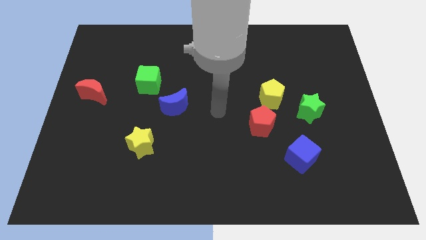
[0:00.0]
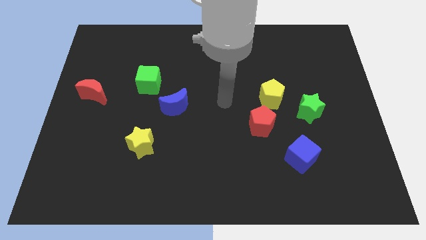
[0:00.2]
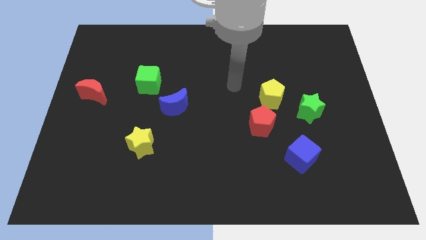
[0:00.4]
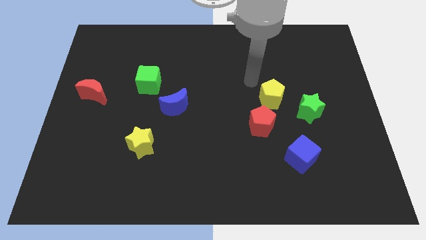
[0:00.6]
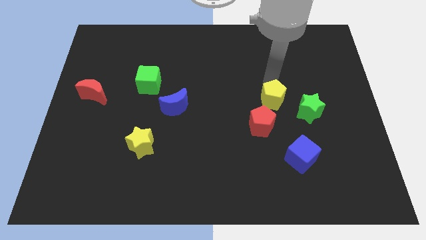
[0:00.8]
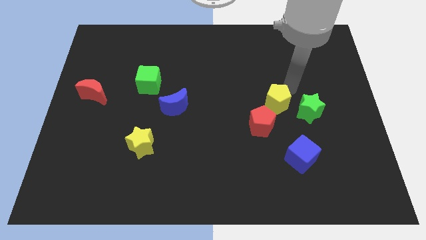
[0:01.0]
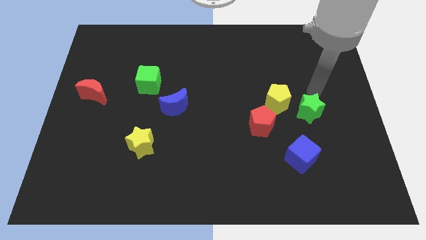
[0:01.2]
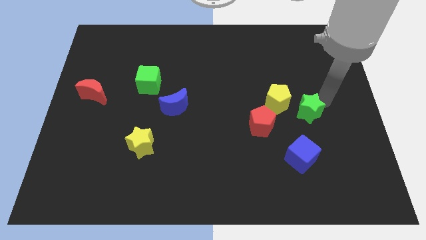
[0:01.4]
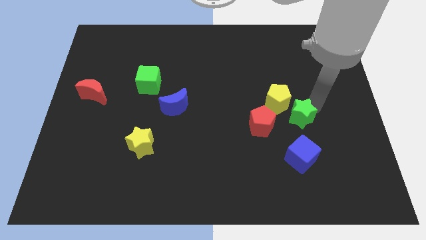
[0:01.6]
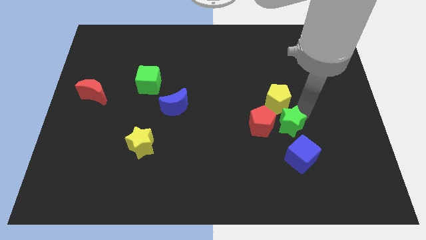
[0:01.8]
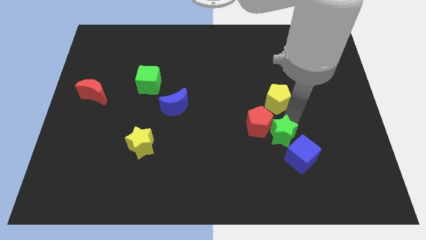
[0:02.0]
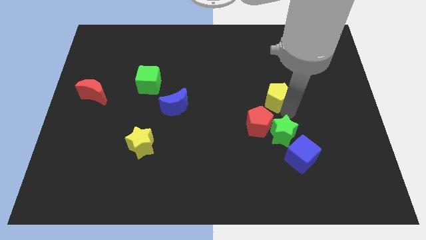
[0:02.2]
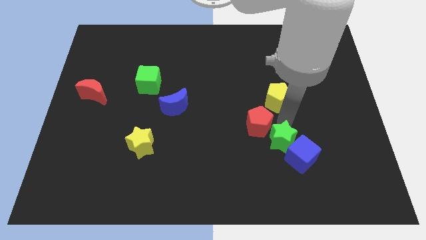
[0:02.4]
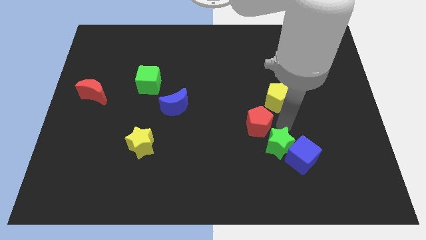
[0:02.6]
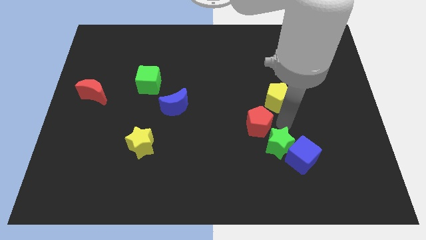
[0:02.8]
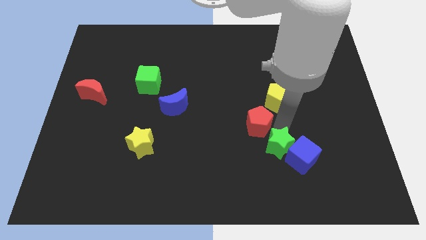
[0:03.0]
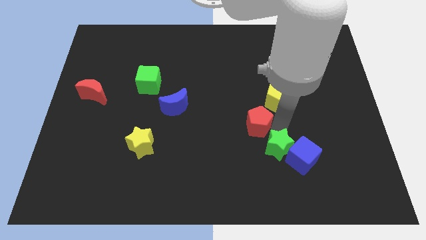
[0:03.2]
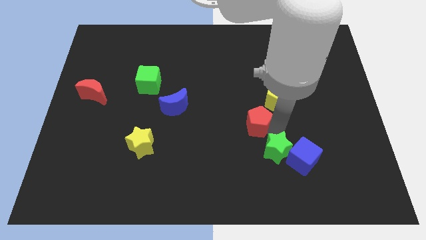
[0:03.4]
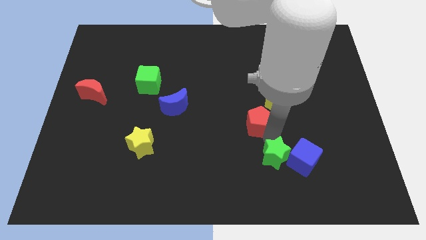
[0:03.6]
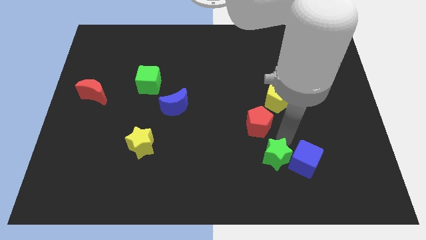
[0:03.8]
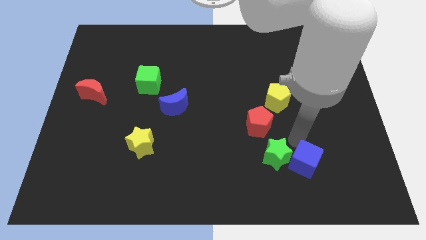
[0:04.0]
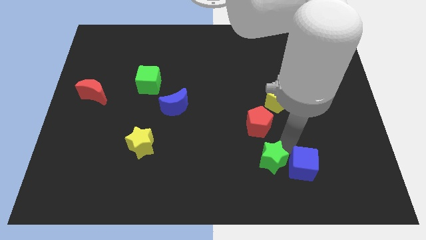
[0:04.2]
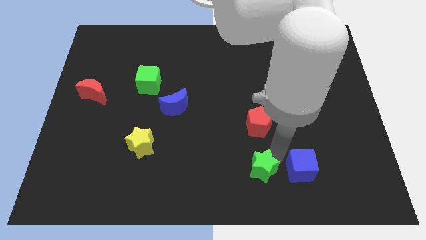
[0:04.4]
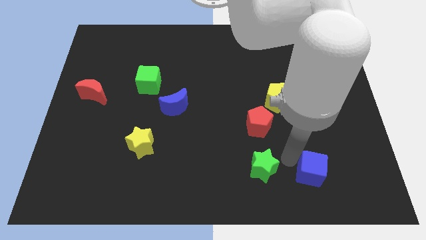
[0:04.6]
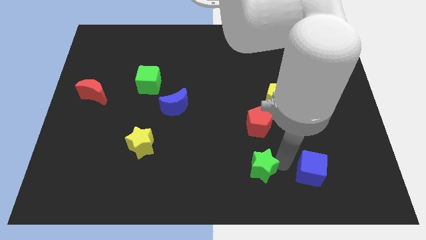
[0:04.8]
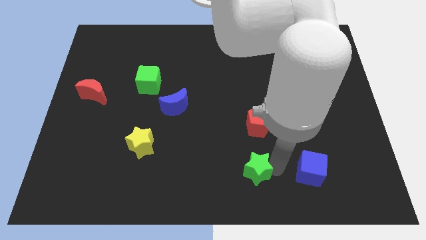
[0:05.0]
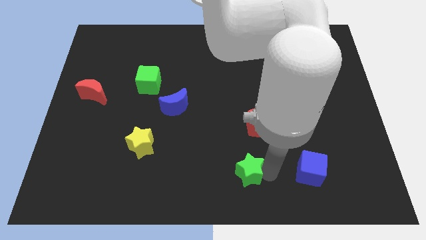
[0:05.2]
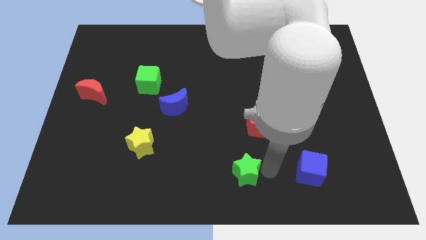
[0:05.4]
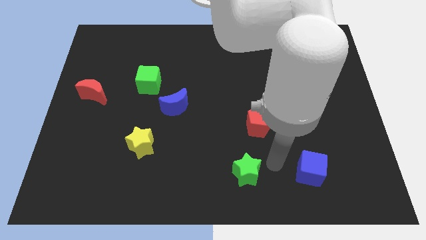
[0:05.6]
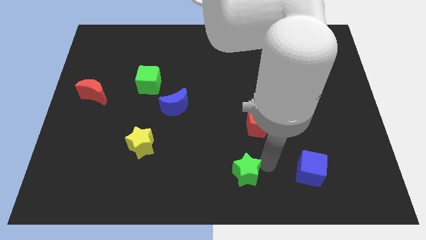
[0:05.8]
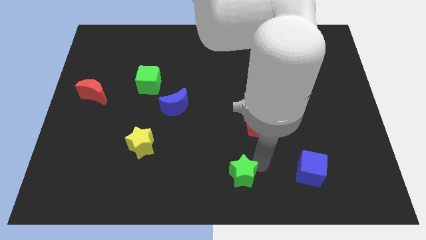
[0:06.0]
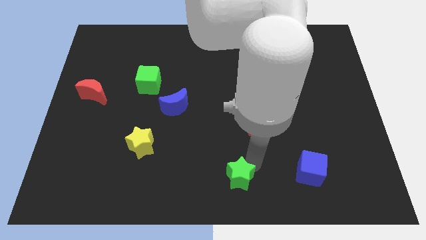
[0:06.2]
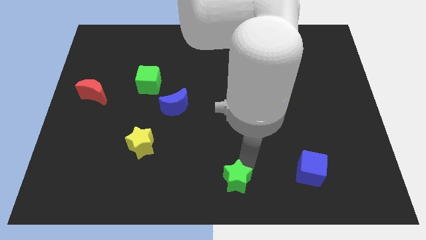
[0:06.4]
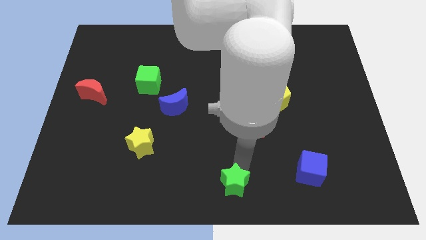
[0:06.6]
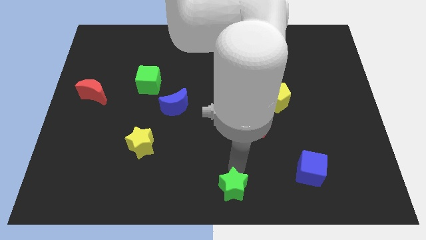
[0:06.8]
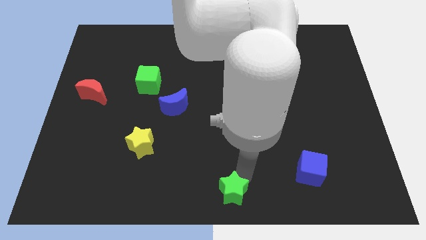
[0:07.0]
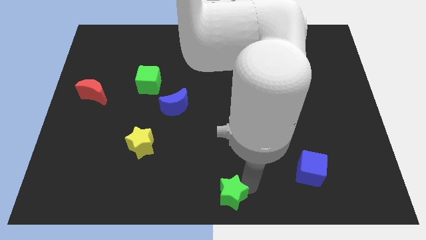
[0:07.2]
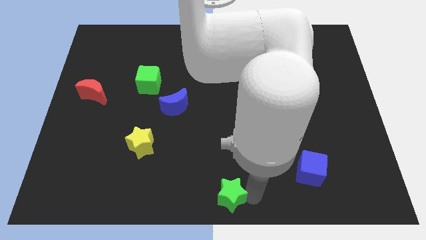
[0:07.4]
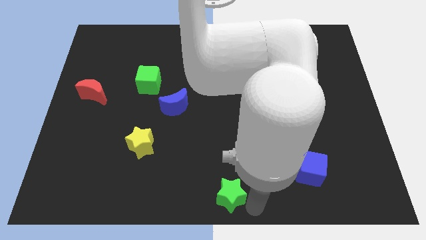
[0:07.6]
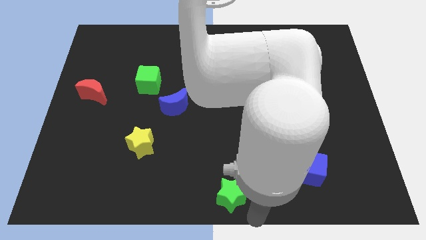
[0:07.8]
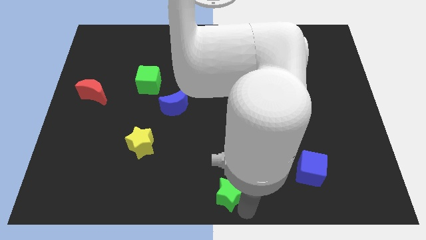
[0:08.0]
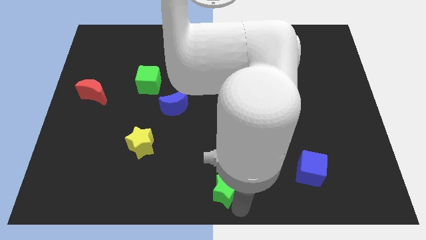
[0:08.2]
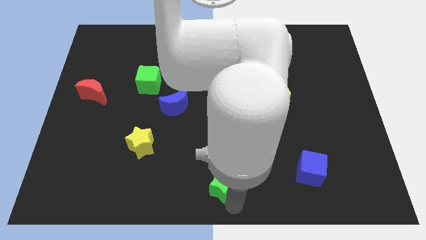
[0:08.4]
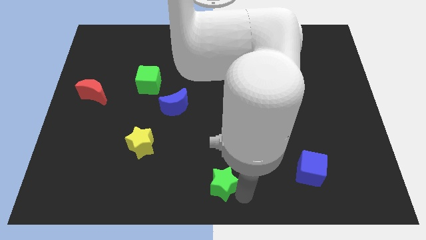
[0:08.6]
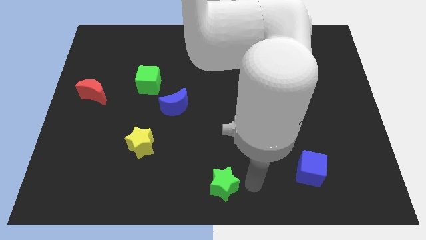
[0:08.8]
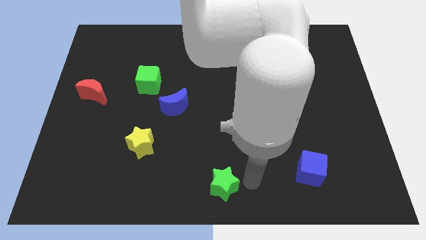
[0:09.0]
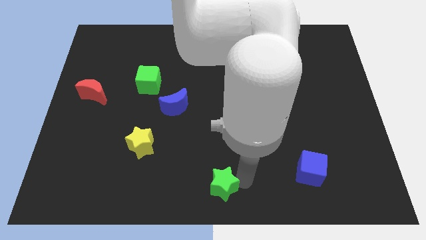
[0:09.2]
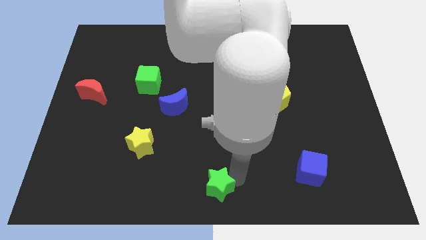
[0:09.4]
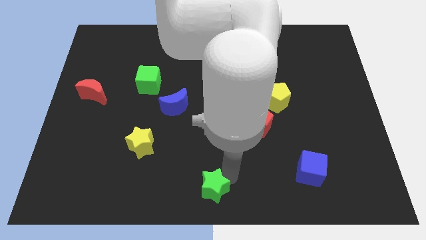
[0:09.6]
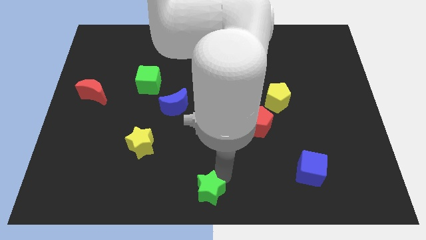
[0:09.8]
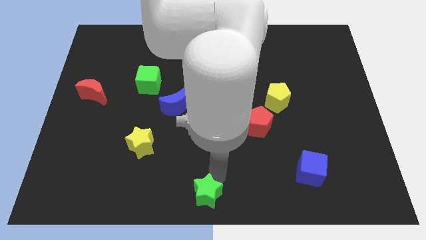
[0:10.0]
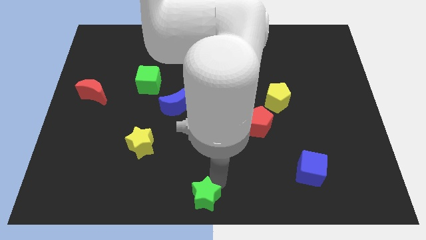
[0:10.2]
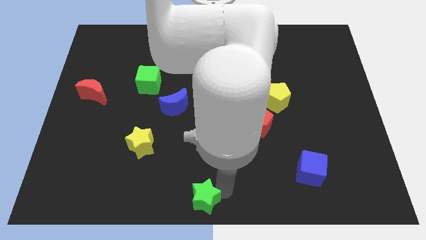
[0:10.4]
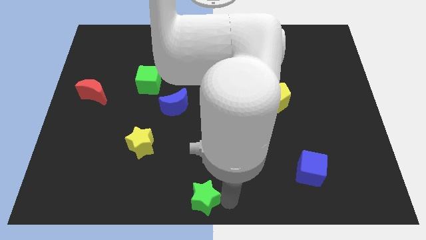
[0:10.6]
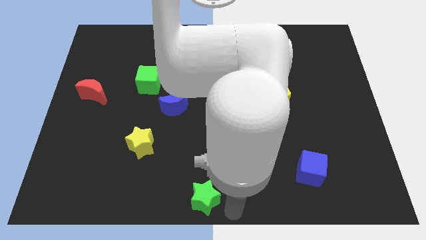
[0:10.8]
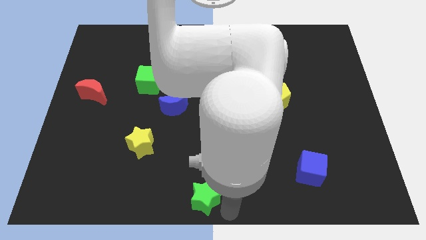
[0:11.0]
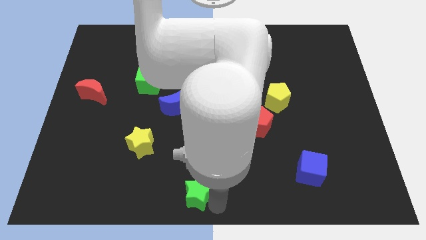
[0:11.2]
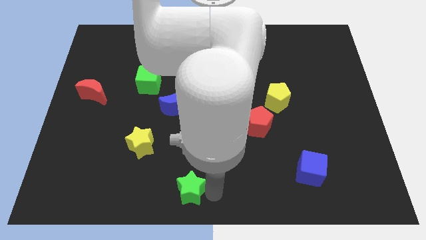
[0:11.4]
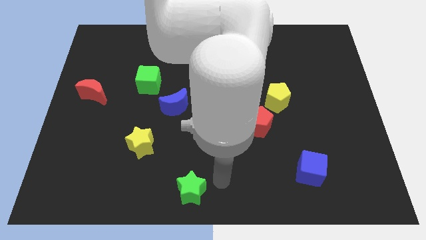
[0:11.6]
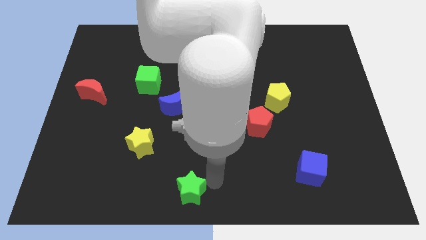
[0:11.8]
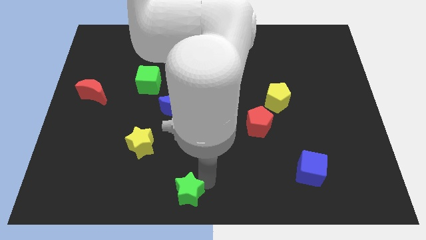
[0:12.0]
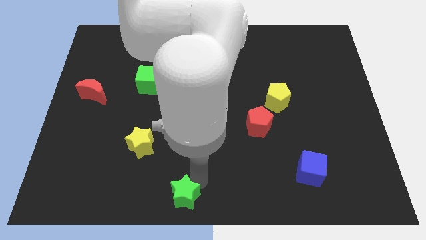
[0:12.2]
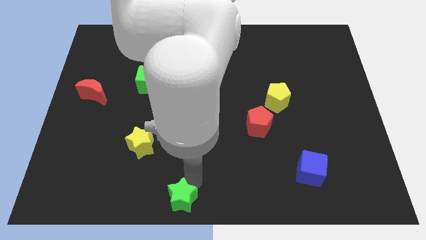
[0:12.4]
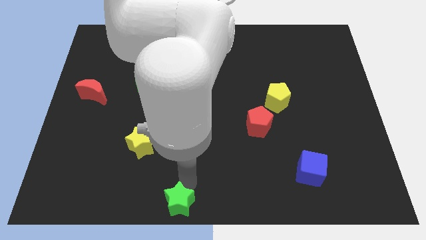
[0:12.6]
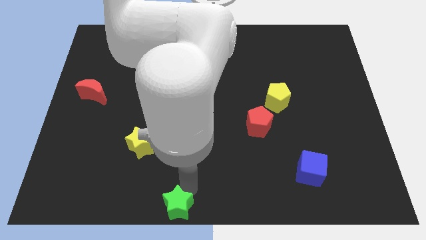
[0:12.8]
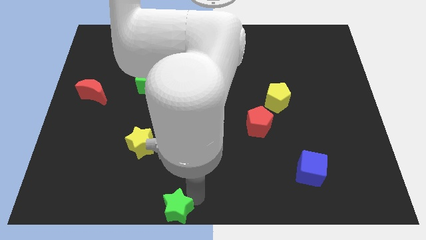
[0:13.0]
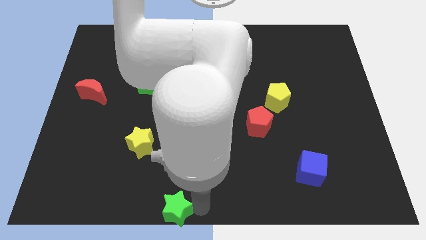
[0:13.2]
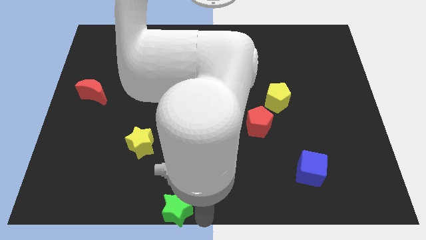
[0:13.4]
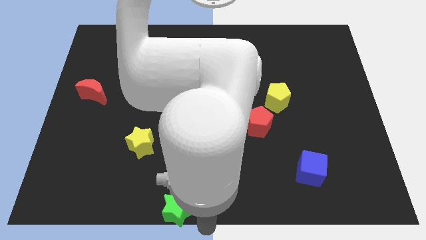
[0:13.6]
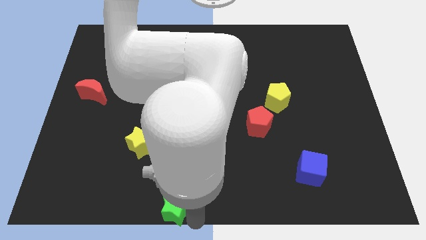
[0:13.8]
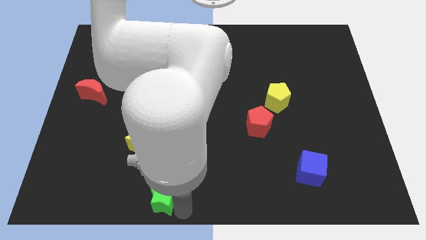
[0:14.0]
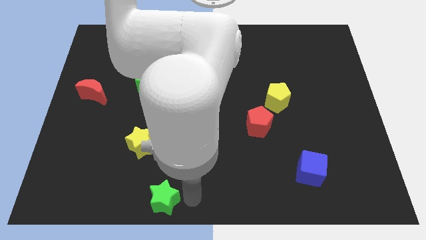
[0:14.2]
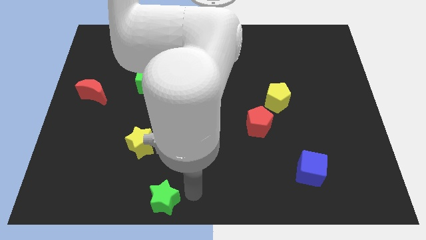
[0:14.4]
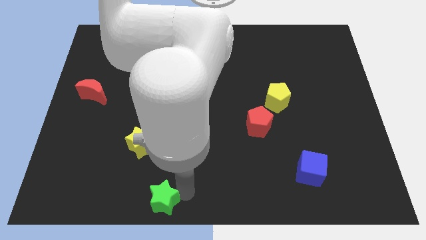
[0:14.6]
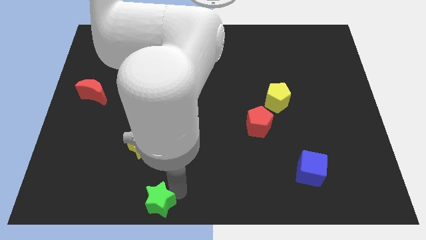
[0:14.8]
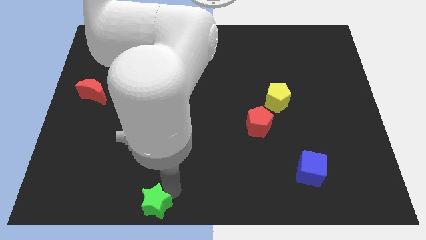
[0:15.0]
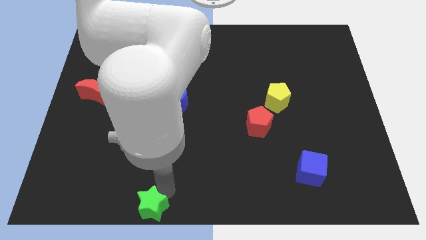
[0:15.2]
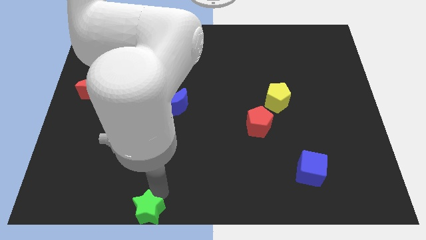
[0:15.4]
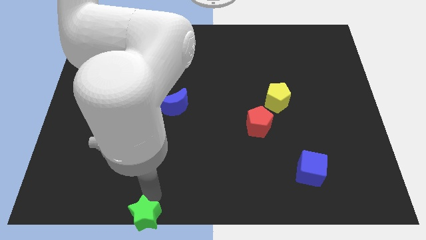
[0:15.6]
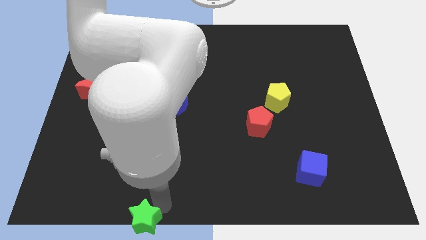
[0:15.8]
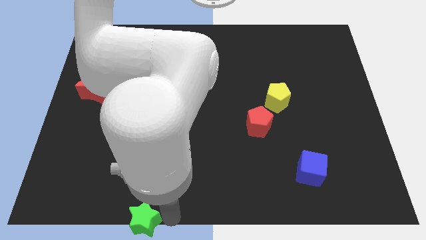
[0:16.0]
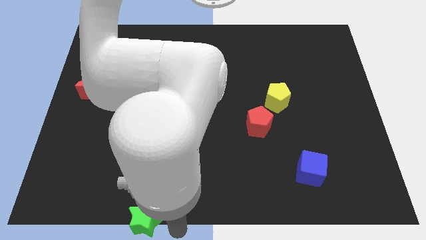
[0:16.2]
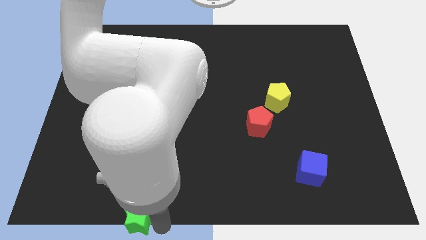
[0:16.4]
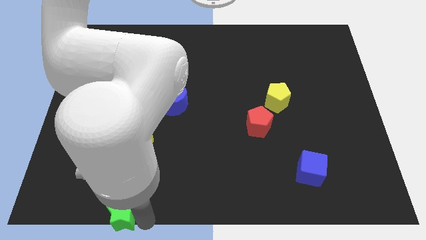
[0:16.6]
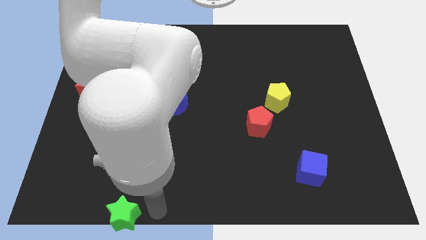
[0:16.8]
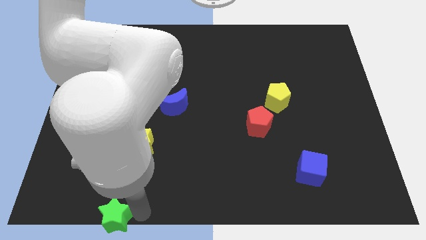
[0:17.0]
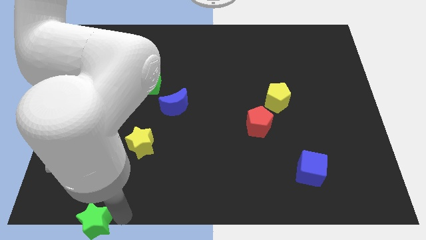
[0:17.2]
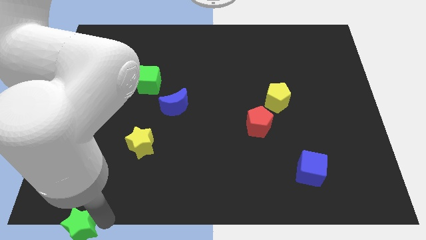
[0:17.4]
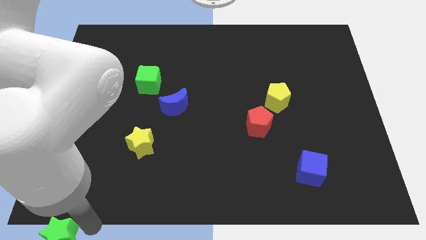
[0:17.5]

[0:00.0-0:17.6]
put the green star to the bottom left of the board
